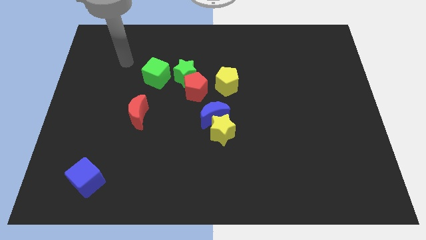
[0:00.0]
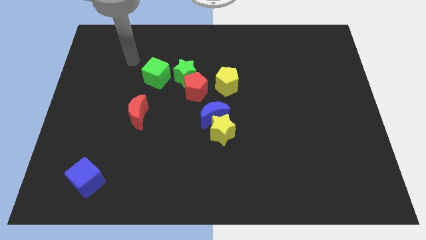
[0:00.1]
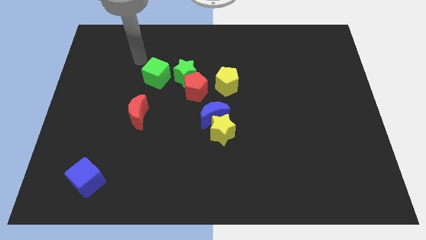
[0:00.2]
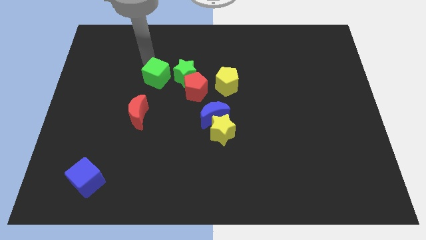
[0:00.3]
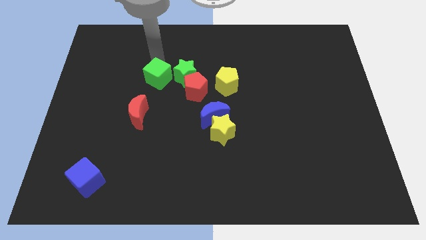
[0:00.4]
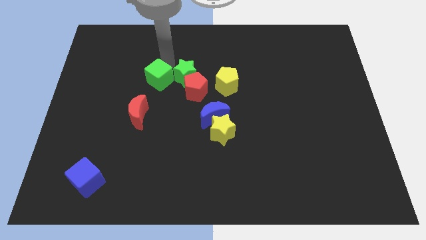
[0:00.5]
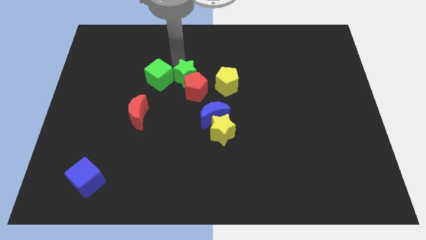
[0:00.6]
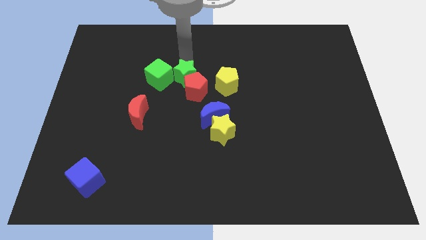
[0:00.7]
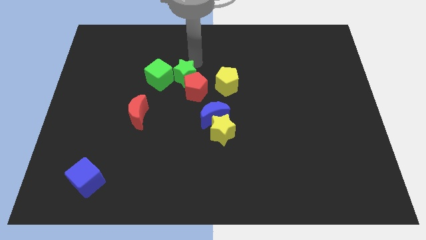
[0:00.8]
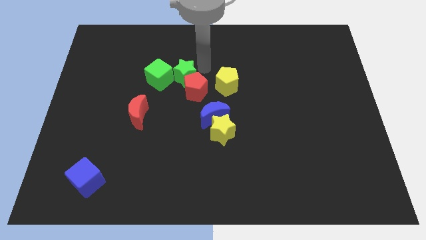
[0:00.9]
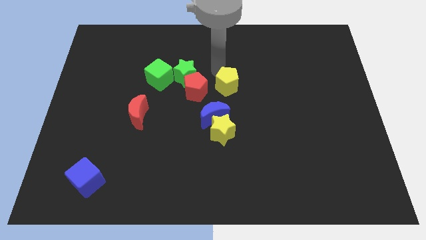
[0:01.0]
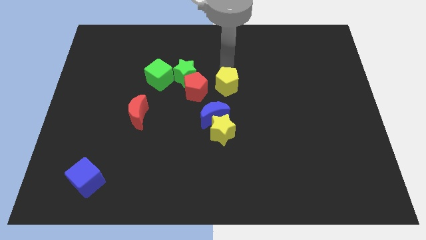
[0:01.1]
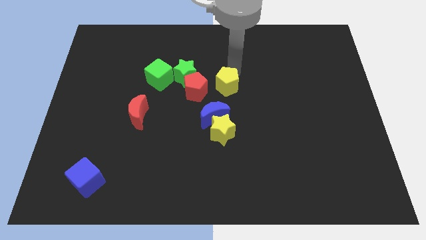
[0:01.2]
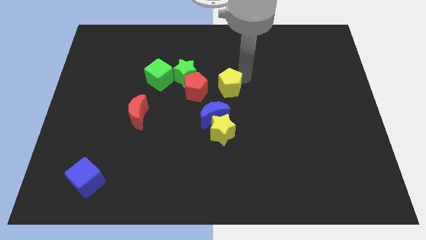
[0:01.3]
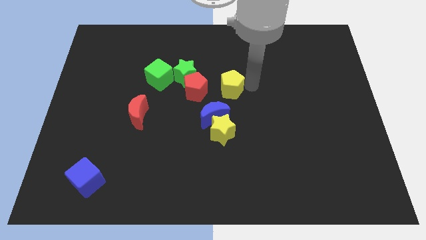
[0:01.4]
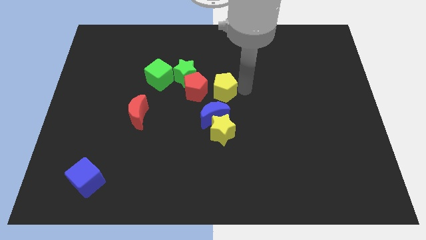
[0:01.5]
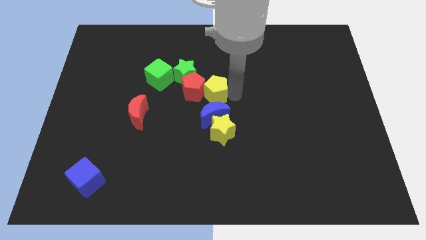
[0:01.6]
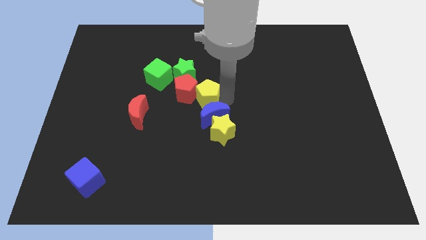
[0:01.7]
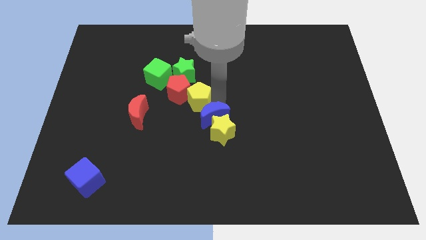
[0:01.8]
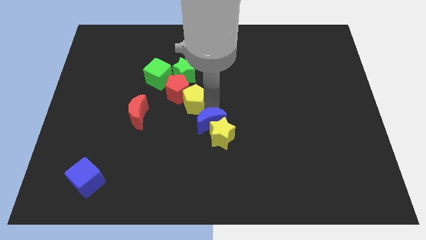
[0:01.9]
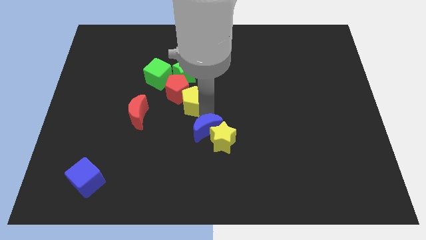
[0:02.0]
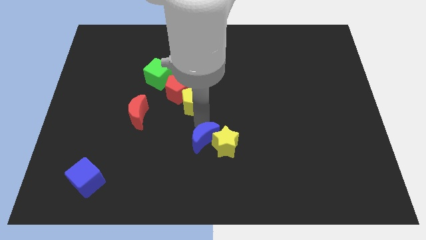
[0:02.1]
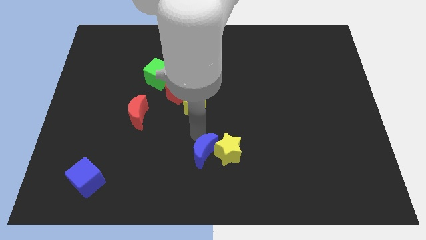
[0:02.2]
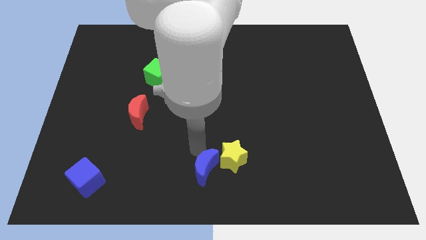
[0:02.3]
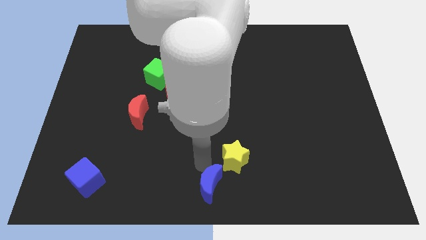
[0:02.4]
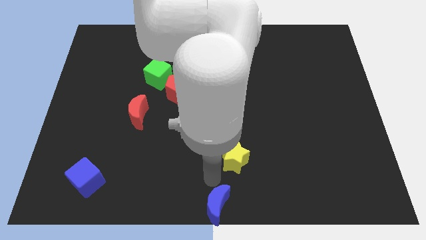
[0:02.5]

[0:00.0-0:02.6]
move the yellow star away from the blue moon

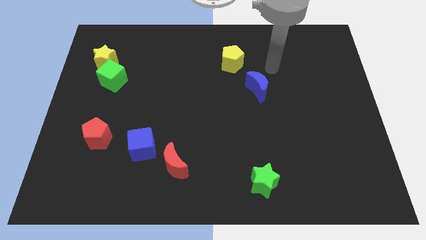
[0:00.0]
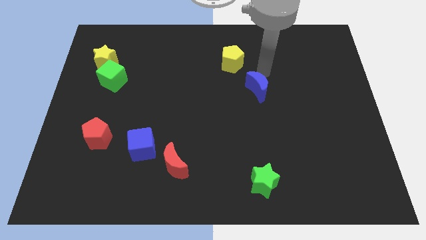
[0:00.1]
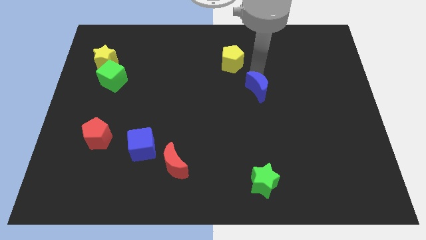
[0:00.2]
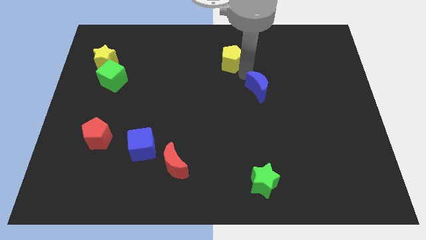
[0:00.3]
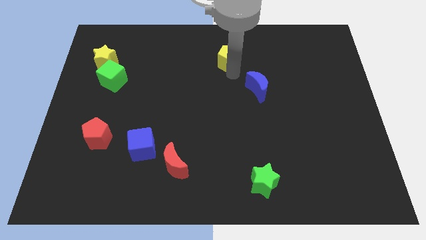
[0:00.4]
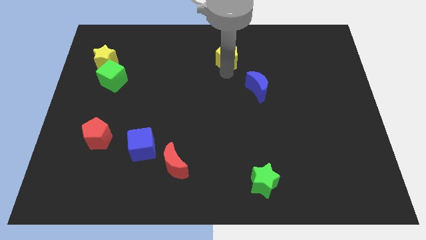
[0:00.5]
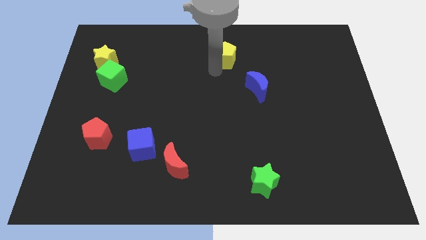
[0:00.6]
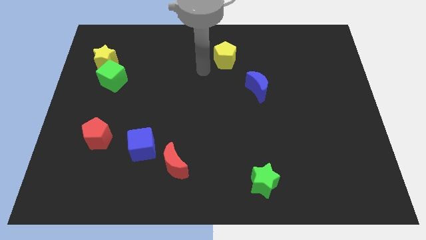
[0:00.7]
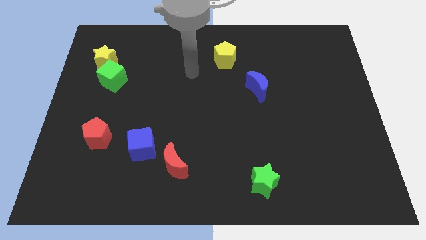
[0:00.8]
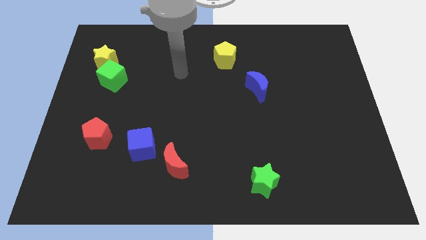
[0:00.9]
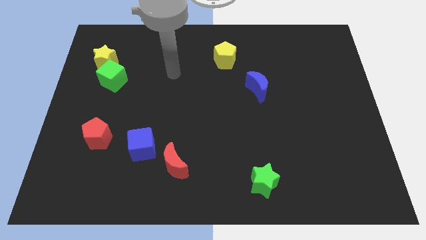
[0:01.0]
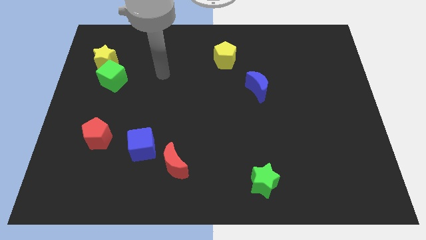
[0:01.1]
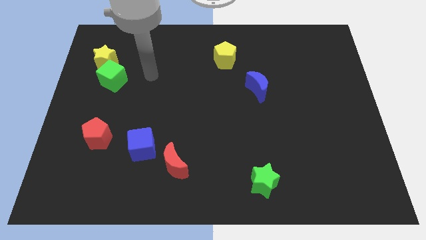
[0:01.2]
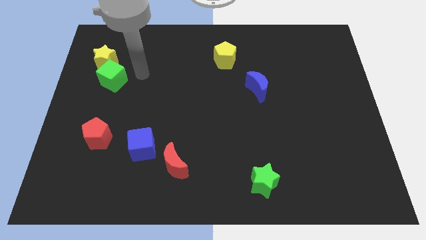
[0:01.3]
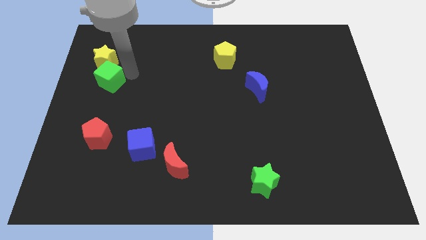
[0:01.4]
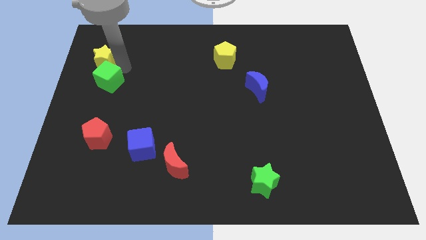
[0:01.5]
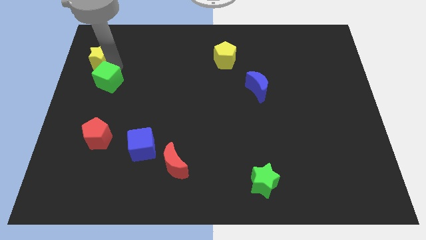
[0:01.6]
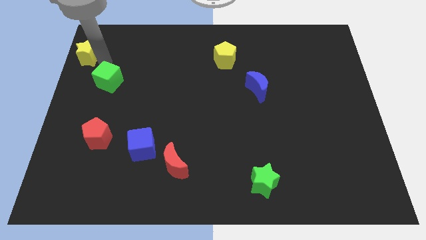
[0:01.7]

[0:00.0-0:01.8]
separate the green cube from the yellow star

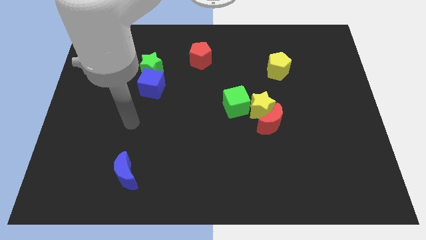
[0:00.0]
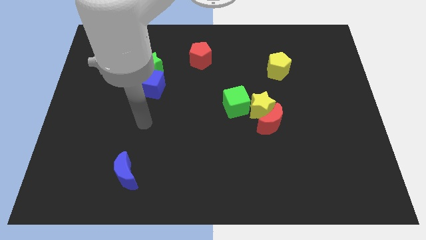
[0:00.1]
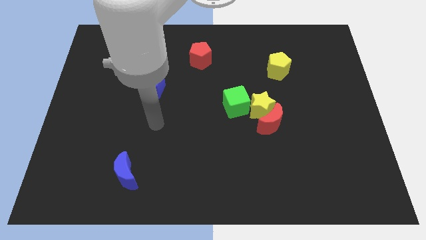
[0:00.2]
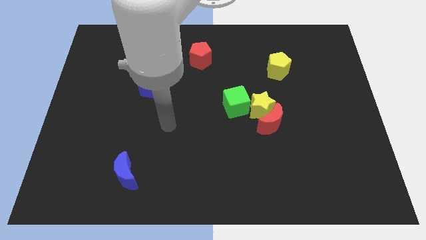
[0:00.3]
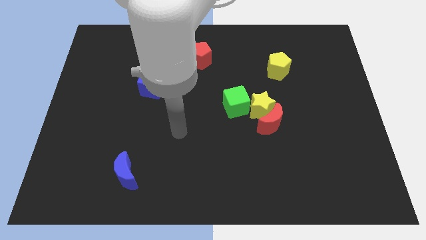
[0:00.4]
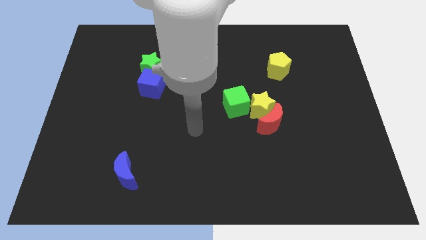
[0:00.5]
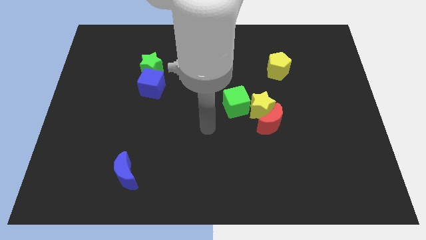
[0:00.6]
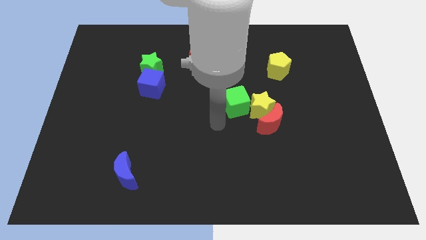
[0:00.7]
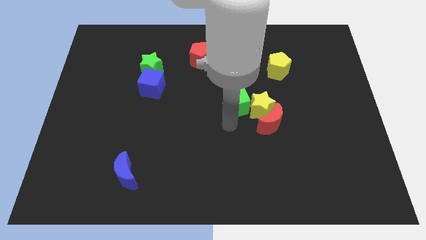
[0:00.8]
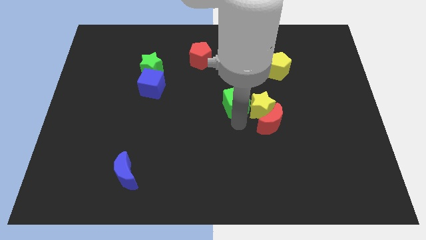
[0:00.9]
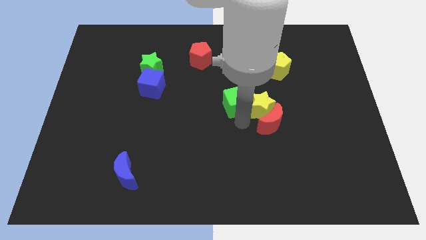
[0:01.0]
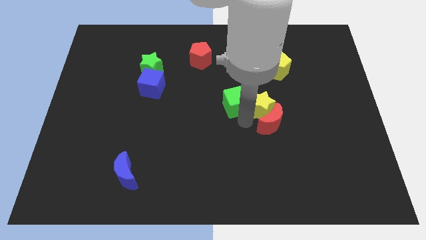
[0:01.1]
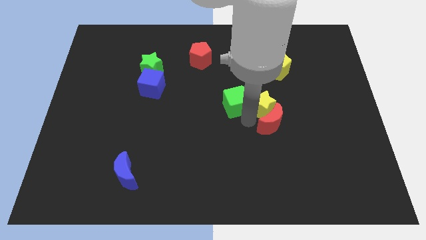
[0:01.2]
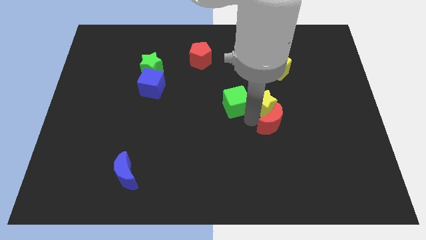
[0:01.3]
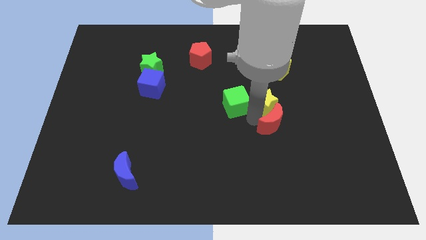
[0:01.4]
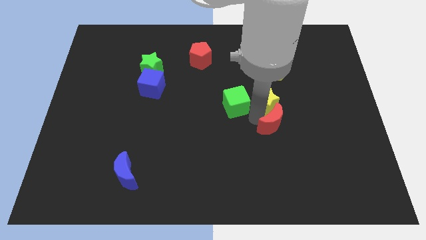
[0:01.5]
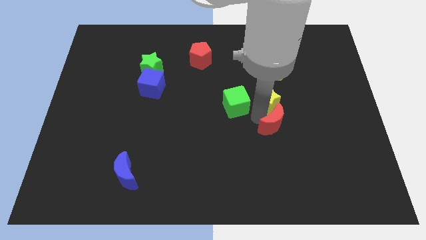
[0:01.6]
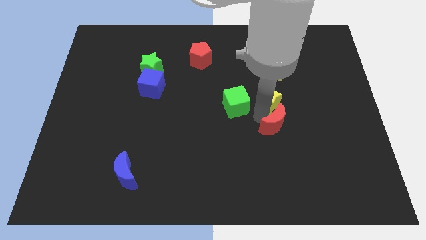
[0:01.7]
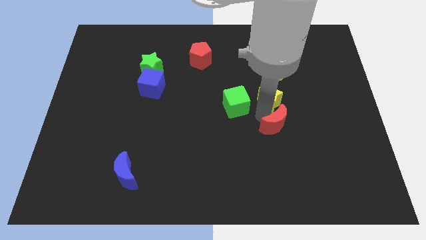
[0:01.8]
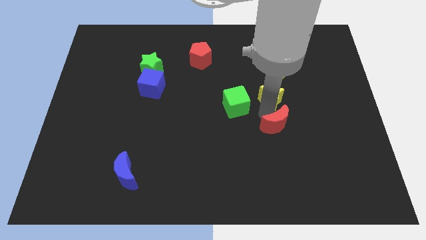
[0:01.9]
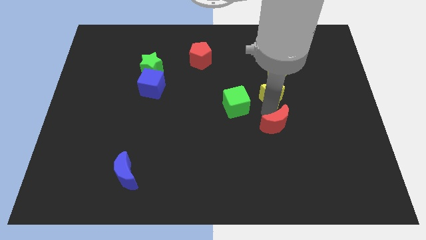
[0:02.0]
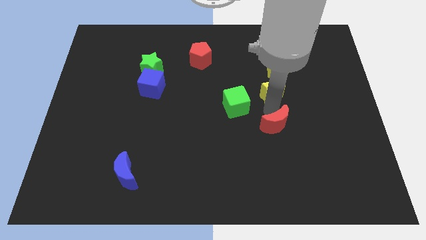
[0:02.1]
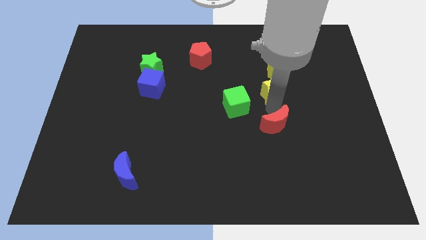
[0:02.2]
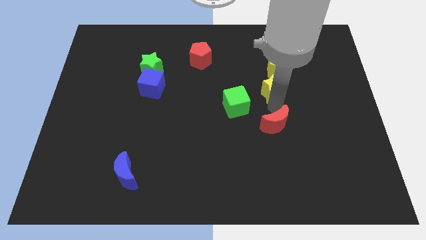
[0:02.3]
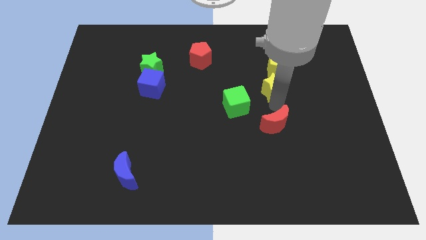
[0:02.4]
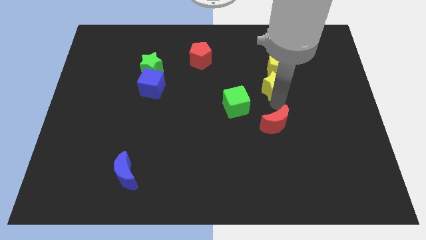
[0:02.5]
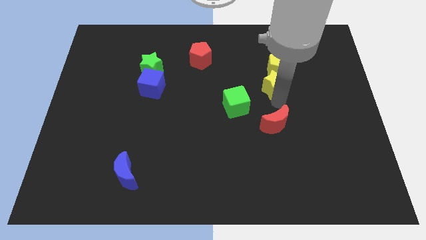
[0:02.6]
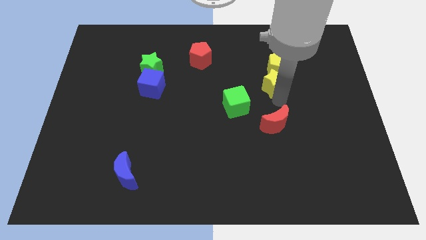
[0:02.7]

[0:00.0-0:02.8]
move the yellow star away from the red moon and green cube

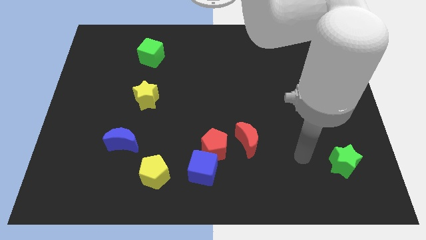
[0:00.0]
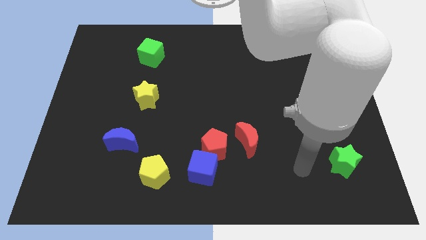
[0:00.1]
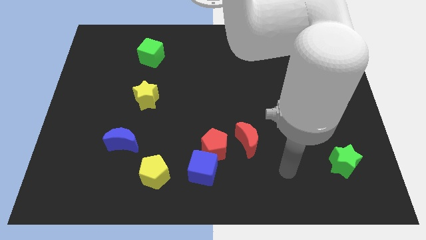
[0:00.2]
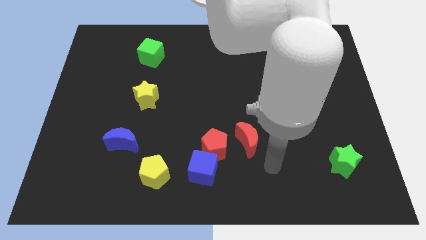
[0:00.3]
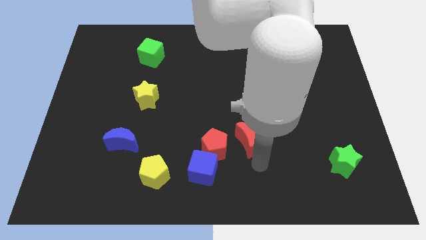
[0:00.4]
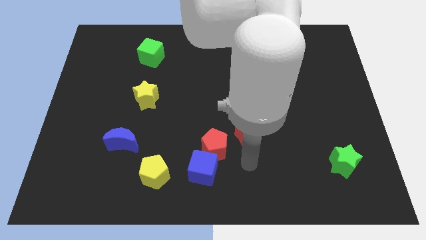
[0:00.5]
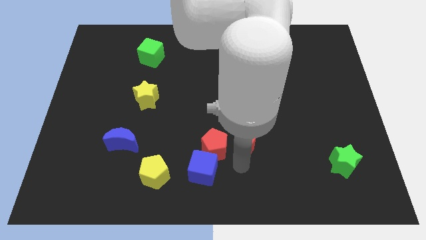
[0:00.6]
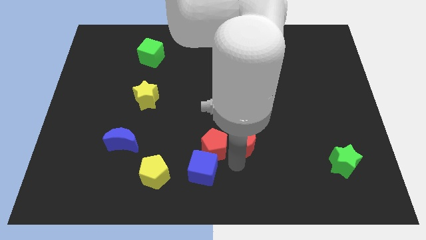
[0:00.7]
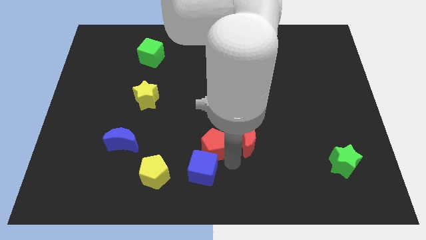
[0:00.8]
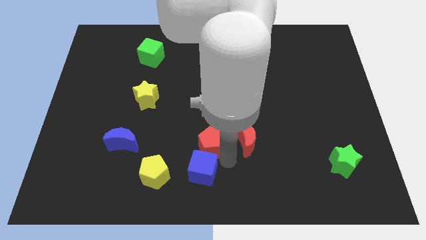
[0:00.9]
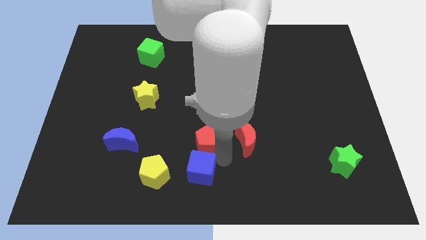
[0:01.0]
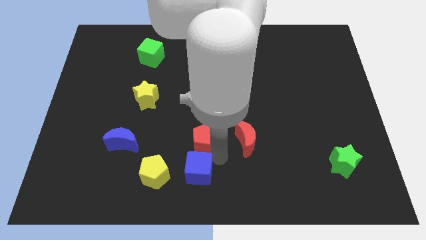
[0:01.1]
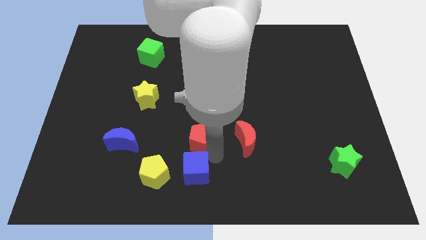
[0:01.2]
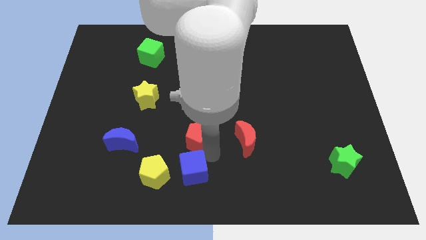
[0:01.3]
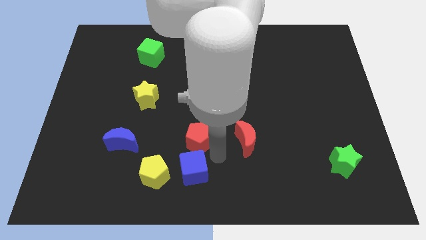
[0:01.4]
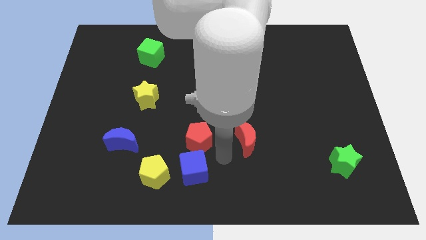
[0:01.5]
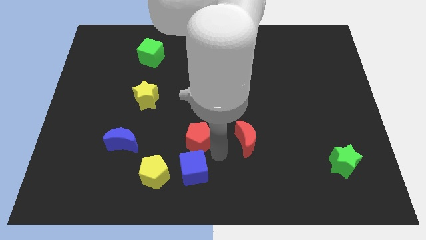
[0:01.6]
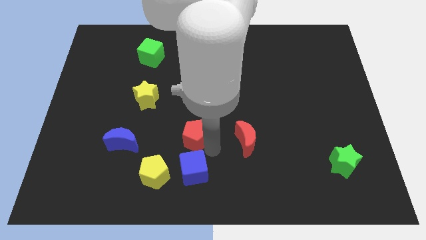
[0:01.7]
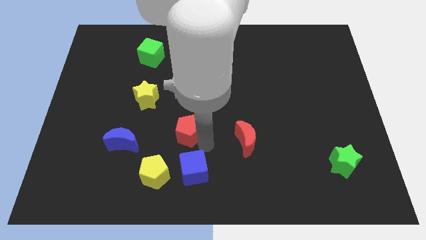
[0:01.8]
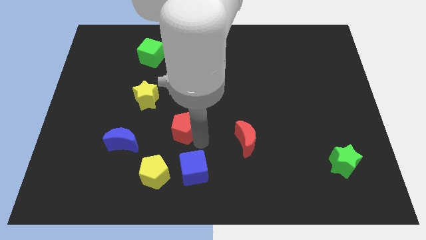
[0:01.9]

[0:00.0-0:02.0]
move the red pentagon away from the blue cube and red moon

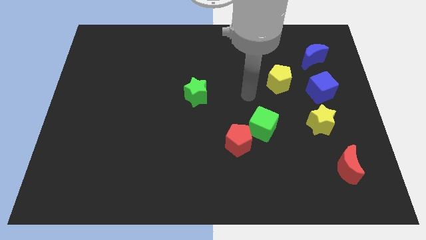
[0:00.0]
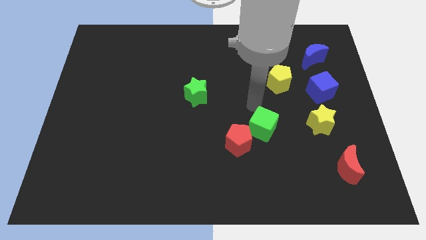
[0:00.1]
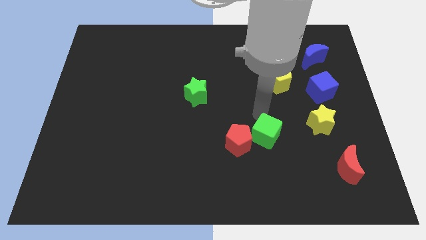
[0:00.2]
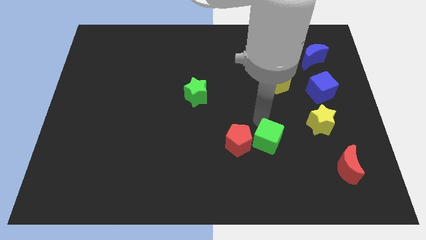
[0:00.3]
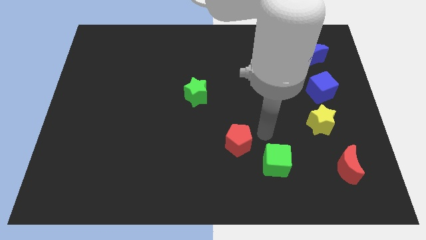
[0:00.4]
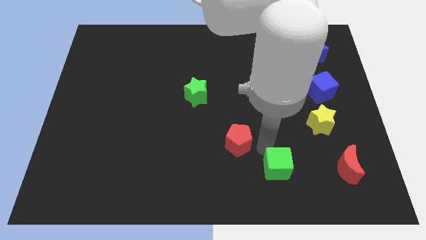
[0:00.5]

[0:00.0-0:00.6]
move the red pentagon away from the green cube
